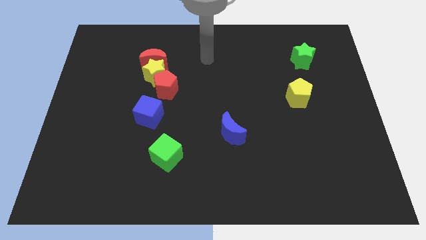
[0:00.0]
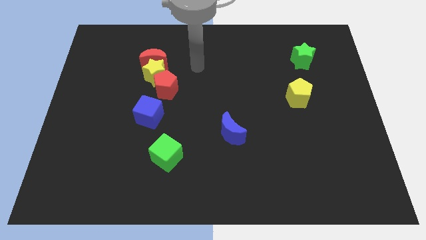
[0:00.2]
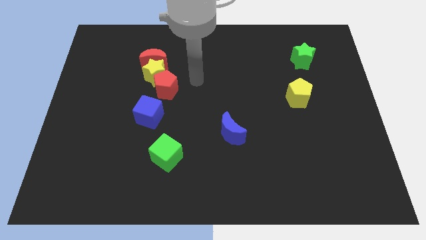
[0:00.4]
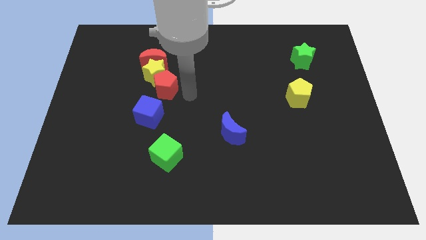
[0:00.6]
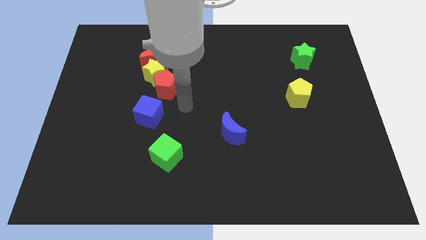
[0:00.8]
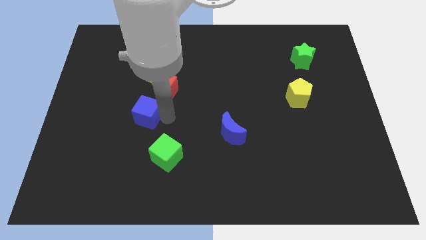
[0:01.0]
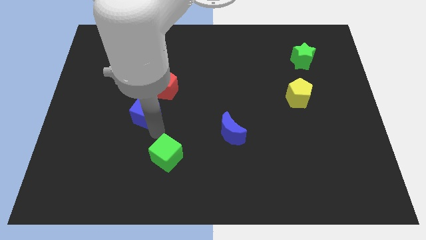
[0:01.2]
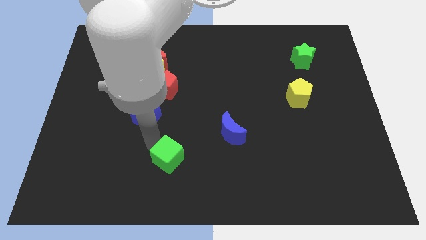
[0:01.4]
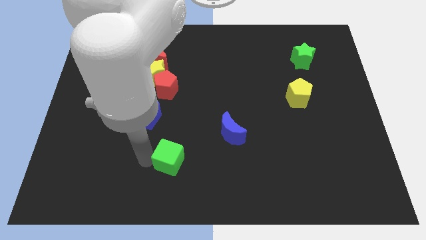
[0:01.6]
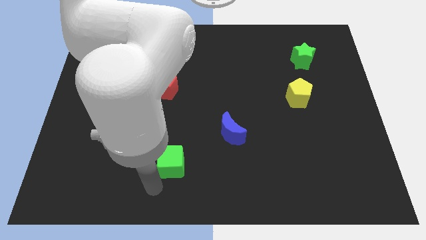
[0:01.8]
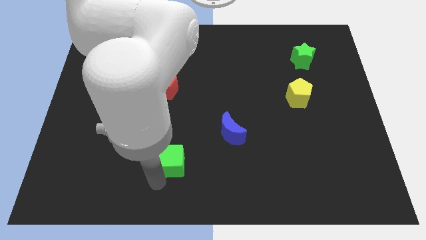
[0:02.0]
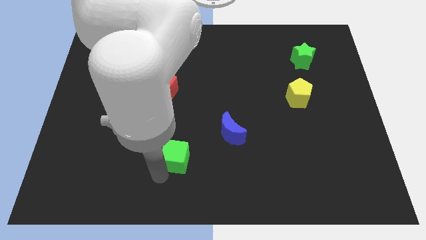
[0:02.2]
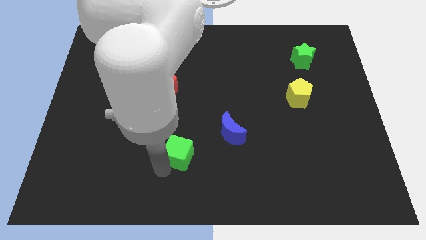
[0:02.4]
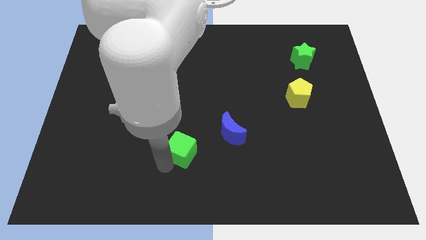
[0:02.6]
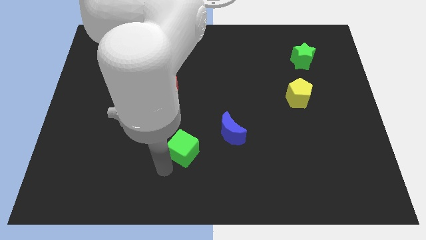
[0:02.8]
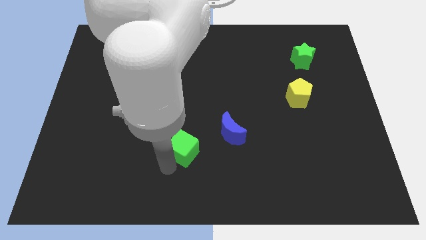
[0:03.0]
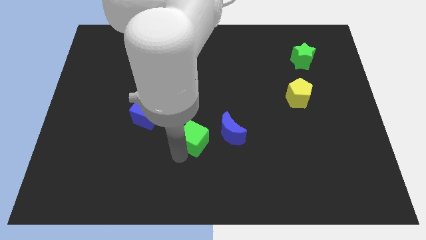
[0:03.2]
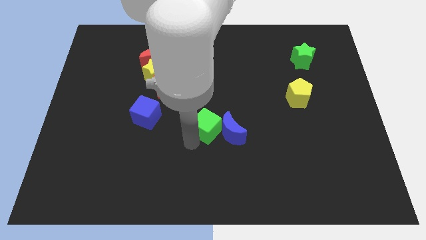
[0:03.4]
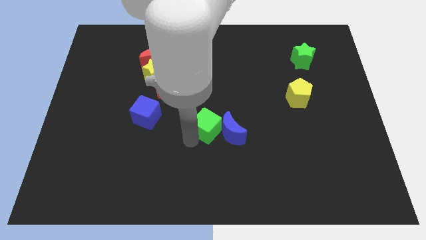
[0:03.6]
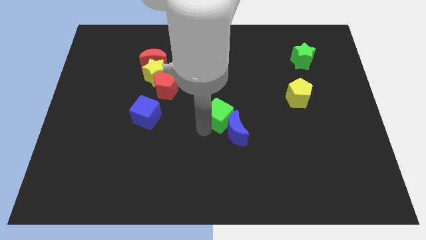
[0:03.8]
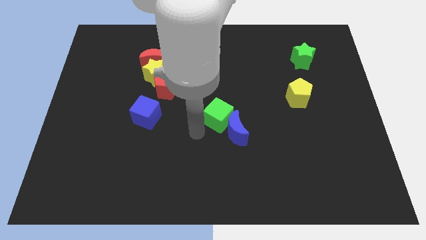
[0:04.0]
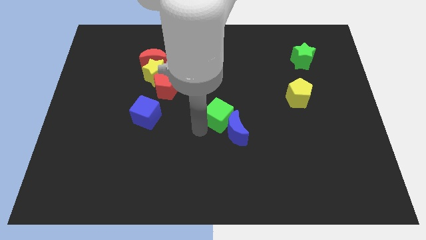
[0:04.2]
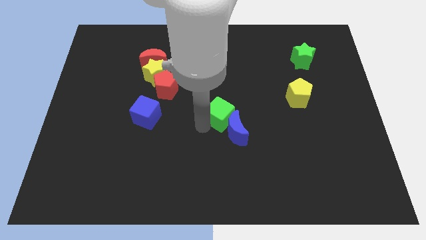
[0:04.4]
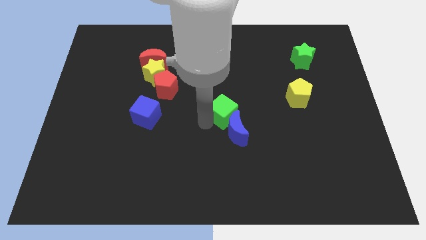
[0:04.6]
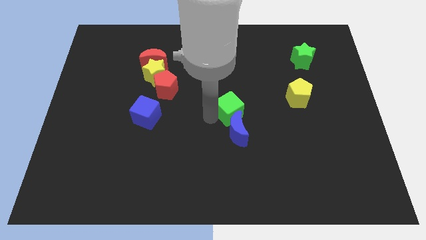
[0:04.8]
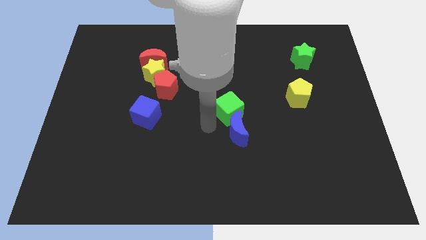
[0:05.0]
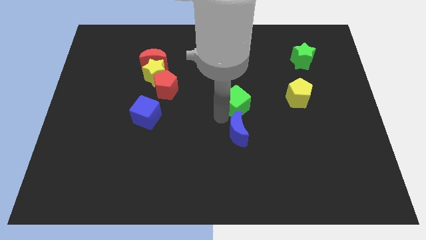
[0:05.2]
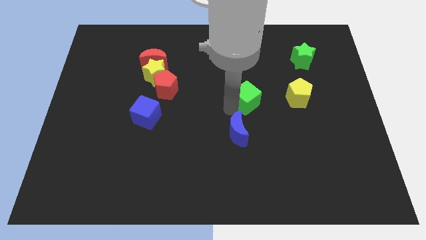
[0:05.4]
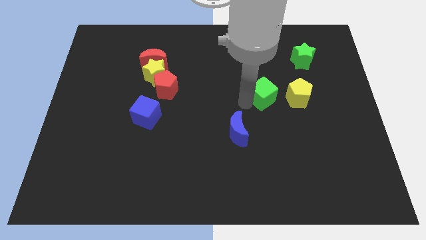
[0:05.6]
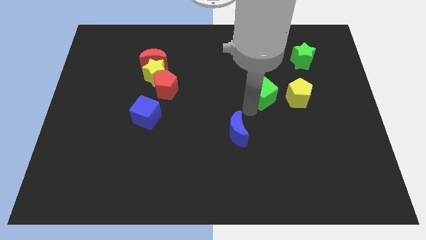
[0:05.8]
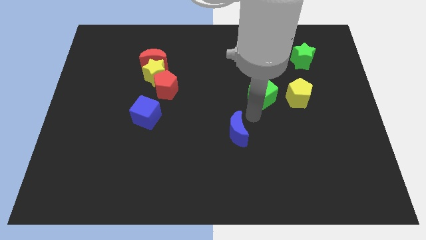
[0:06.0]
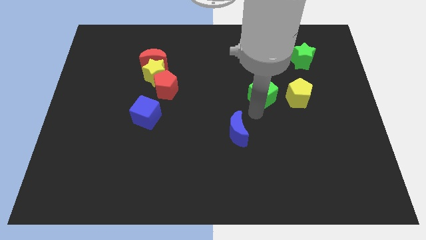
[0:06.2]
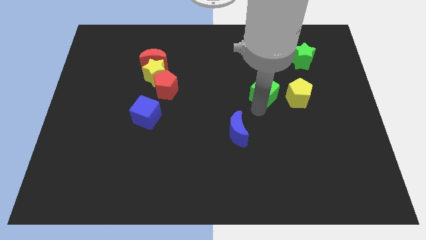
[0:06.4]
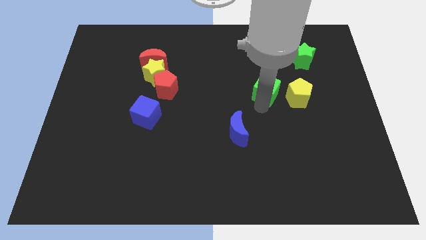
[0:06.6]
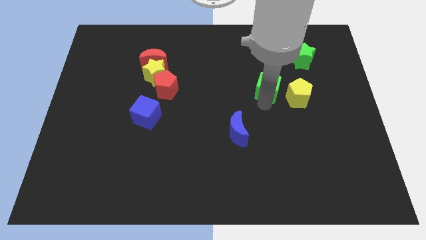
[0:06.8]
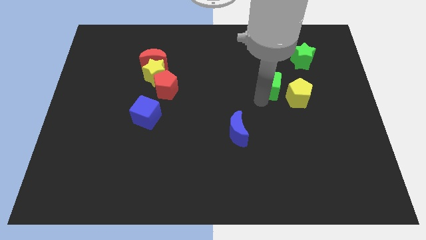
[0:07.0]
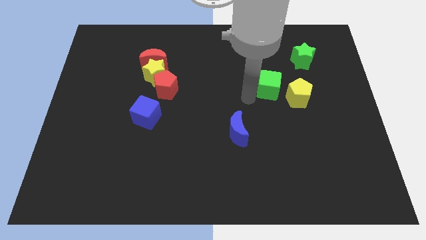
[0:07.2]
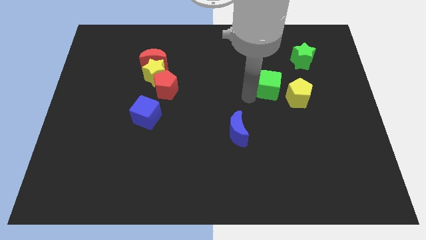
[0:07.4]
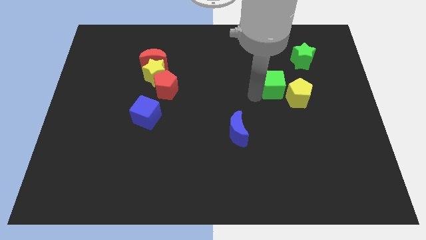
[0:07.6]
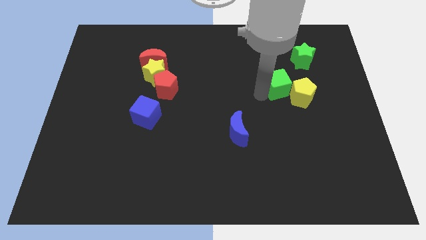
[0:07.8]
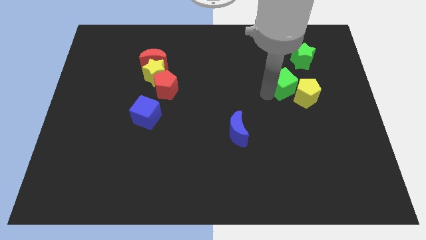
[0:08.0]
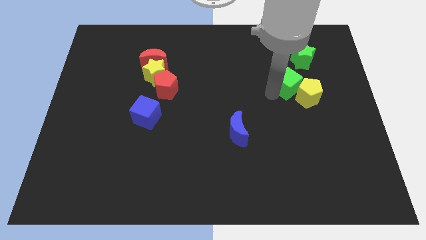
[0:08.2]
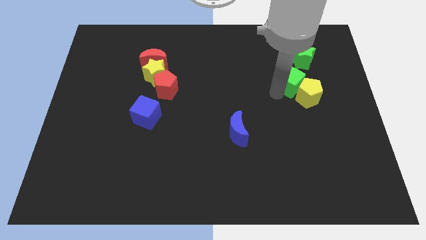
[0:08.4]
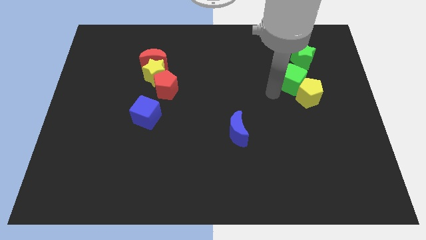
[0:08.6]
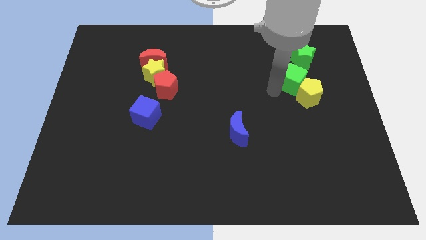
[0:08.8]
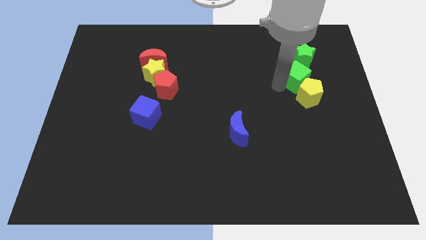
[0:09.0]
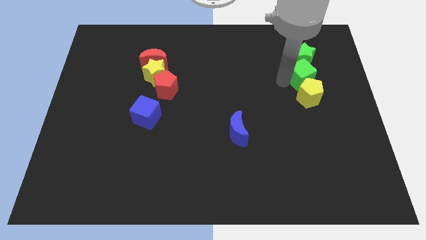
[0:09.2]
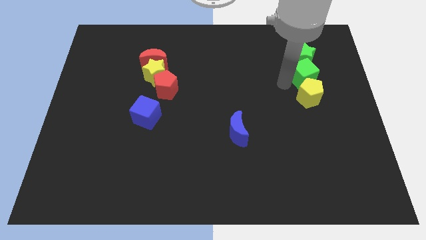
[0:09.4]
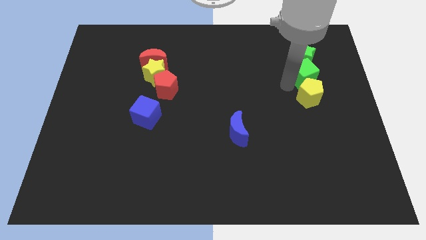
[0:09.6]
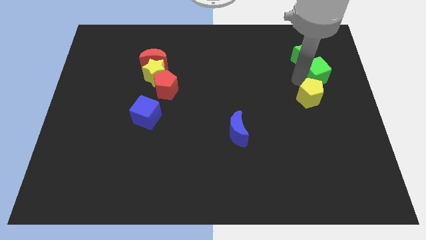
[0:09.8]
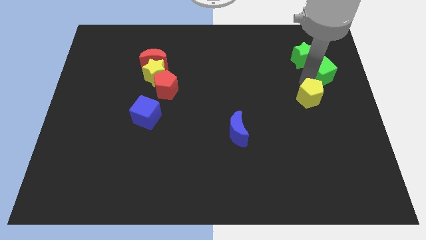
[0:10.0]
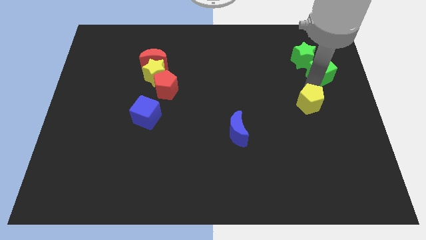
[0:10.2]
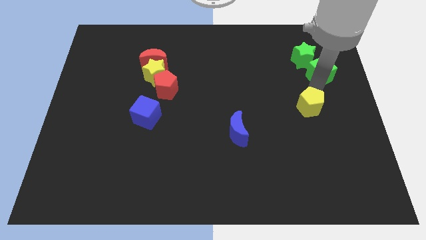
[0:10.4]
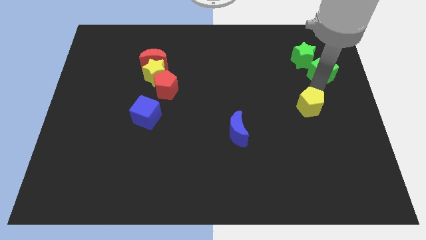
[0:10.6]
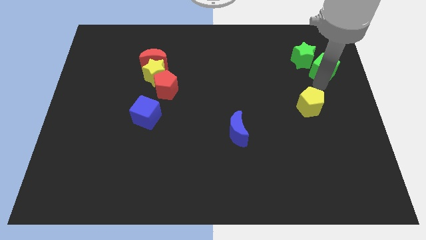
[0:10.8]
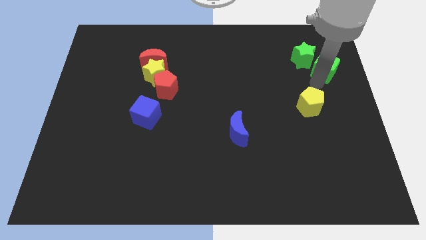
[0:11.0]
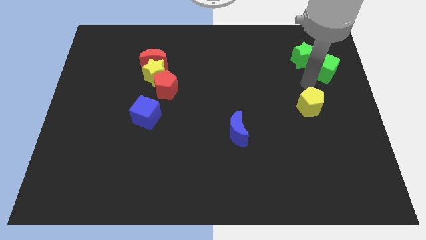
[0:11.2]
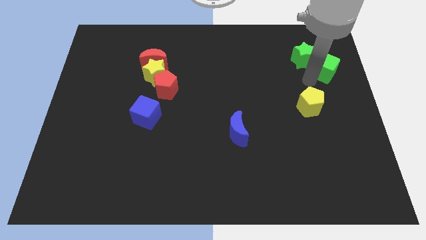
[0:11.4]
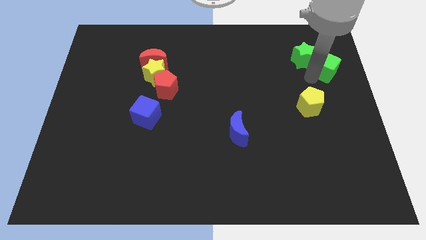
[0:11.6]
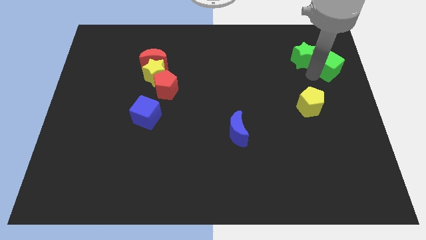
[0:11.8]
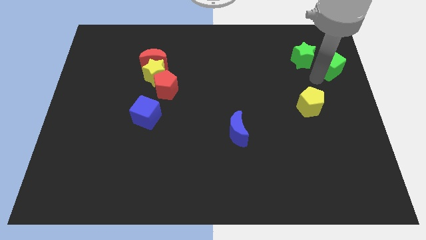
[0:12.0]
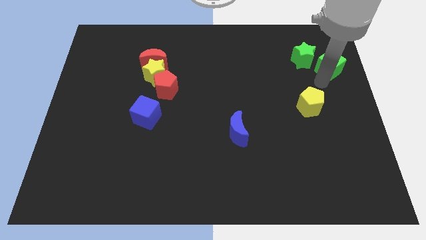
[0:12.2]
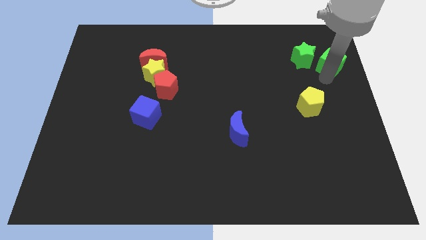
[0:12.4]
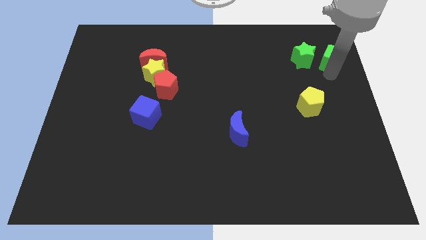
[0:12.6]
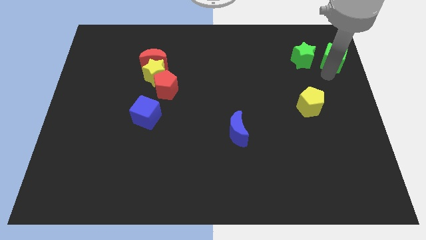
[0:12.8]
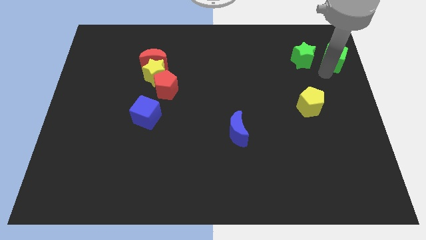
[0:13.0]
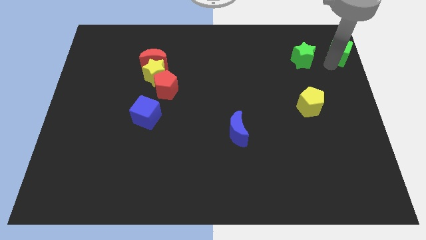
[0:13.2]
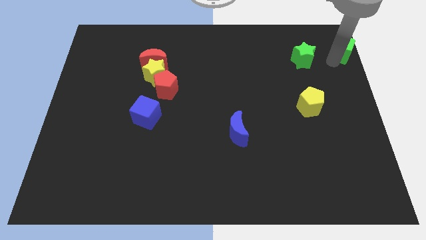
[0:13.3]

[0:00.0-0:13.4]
put the green cube to the upper right corner
